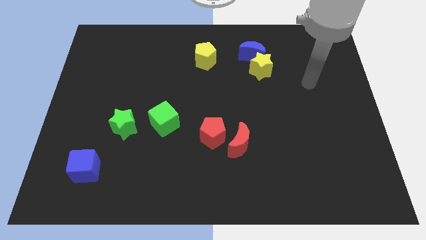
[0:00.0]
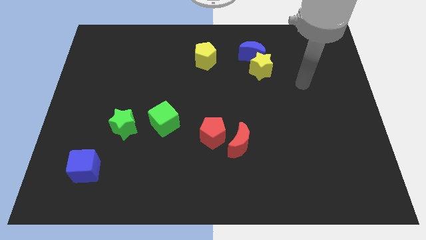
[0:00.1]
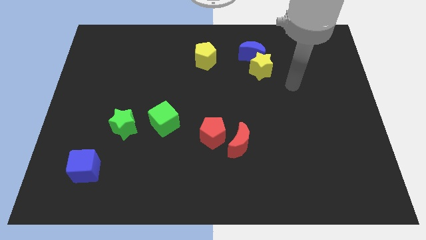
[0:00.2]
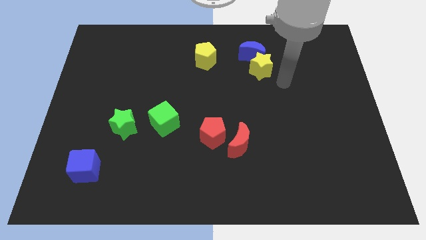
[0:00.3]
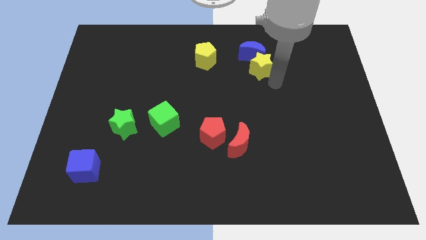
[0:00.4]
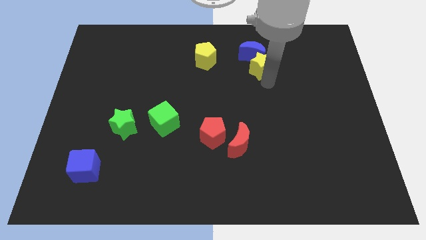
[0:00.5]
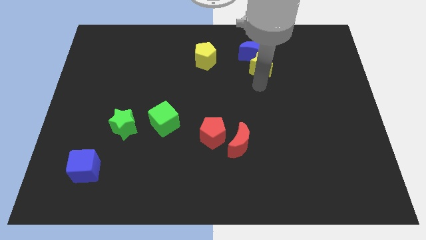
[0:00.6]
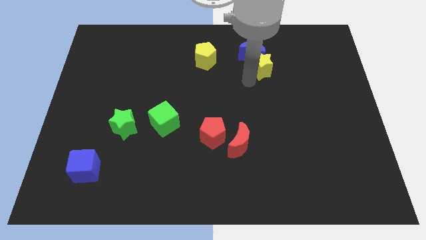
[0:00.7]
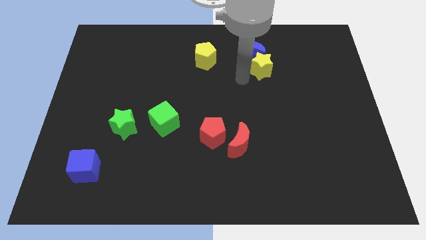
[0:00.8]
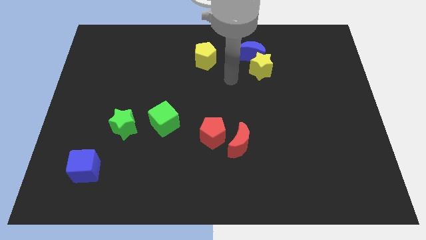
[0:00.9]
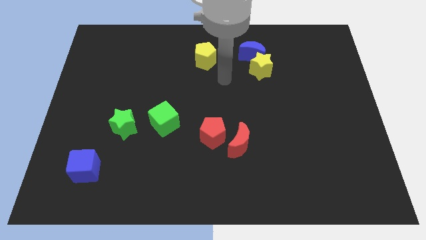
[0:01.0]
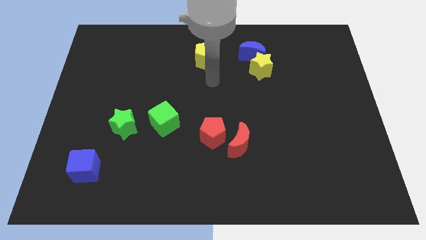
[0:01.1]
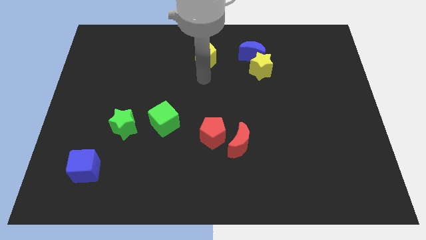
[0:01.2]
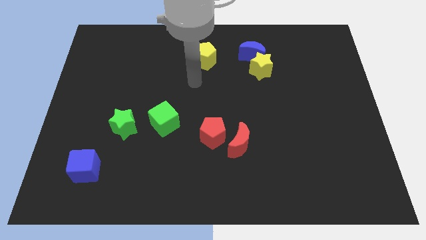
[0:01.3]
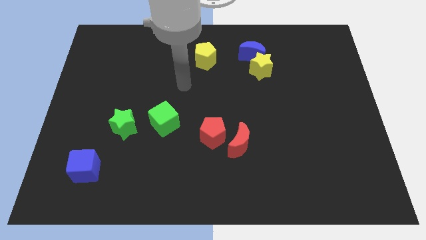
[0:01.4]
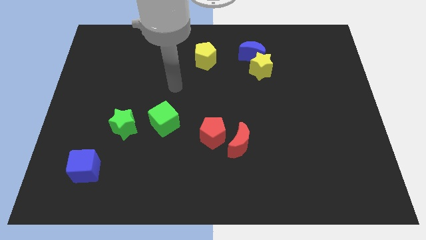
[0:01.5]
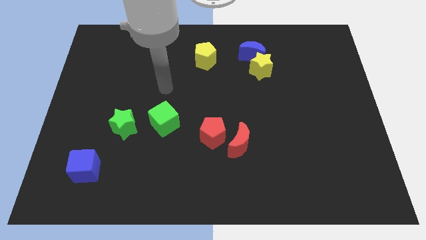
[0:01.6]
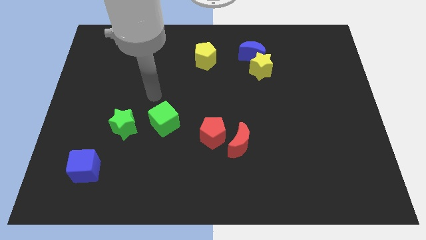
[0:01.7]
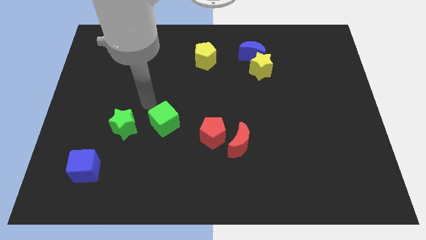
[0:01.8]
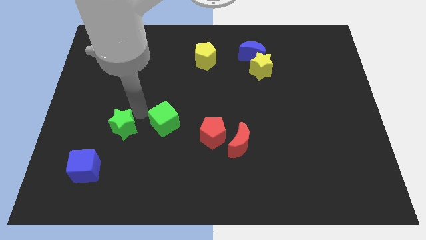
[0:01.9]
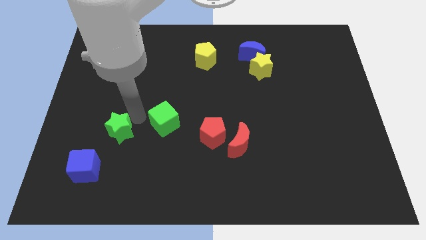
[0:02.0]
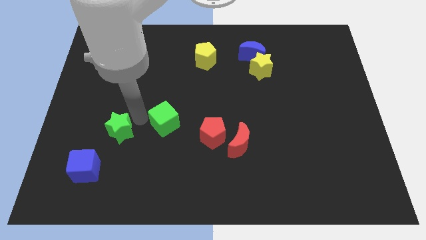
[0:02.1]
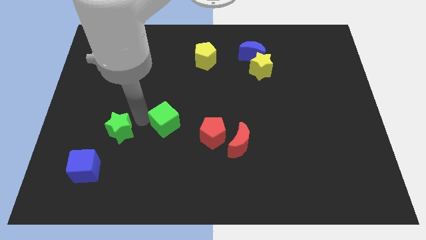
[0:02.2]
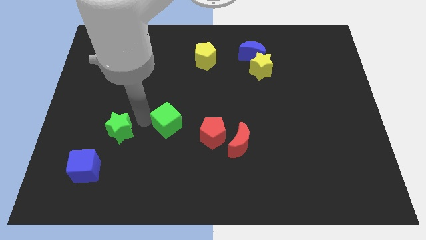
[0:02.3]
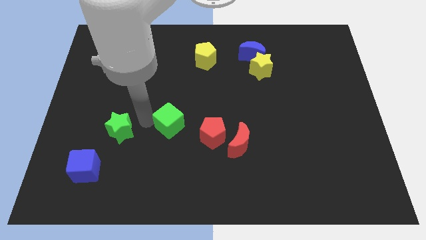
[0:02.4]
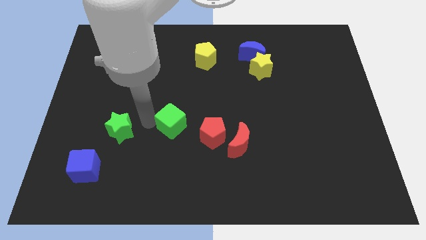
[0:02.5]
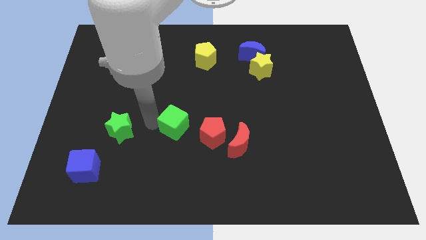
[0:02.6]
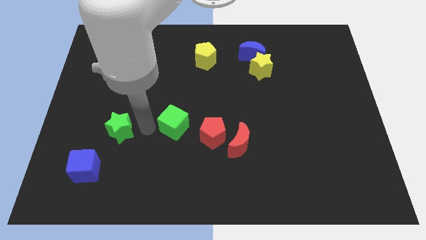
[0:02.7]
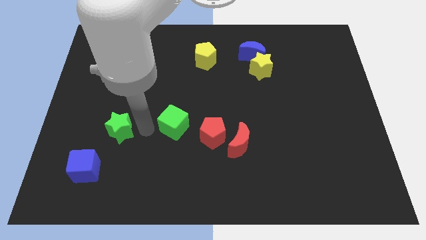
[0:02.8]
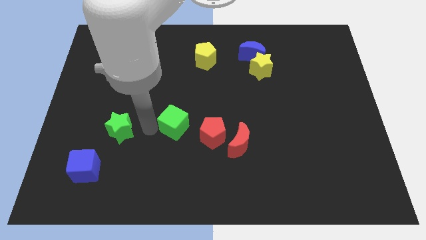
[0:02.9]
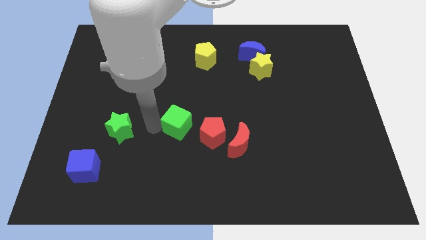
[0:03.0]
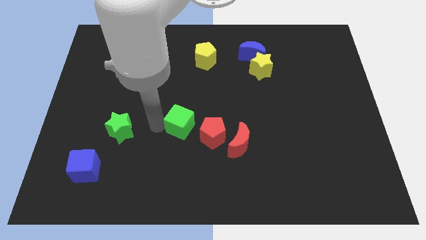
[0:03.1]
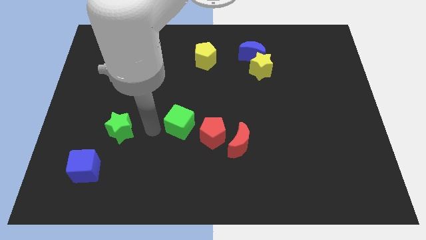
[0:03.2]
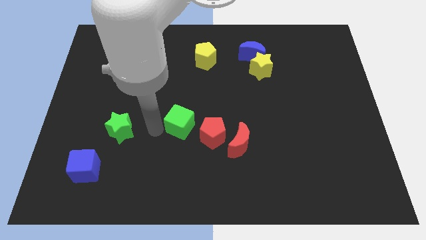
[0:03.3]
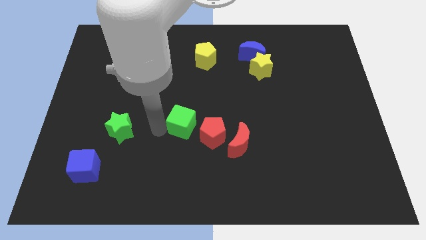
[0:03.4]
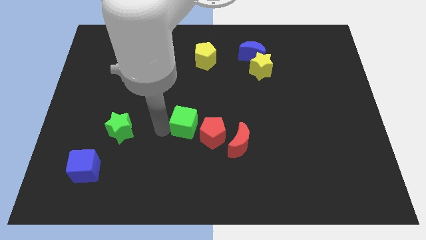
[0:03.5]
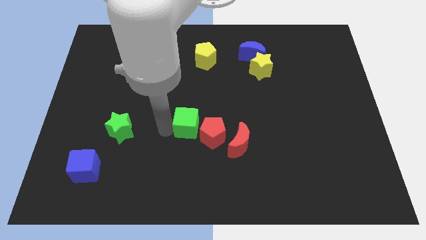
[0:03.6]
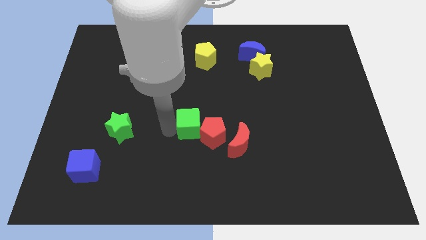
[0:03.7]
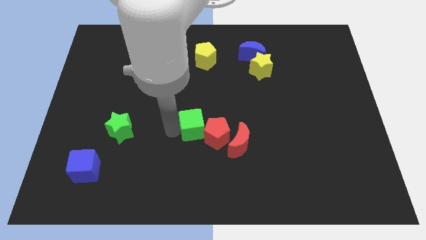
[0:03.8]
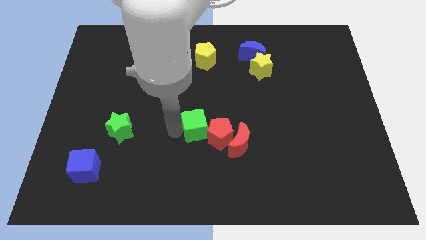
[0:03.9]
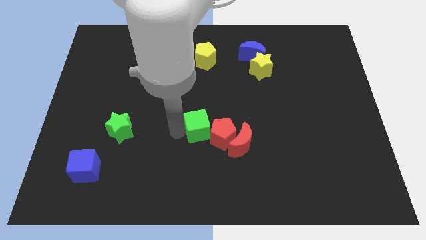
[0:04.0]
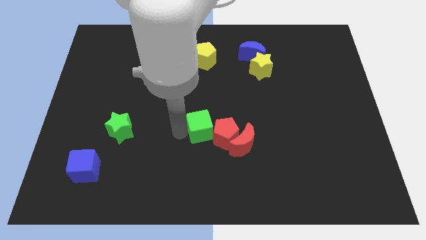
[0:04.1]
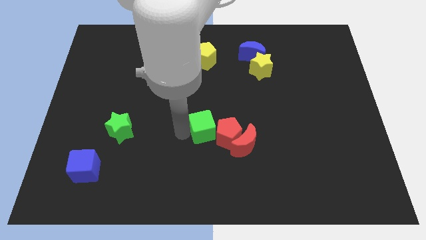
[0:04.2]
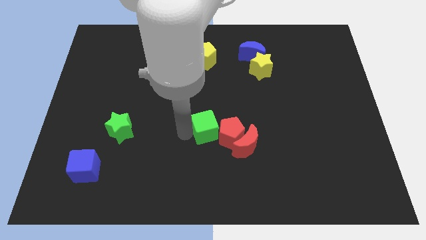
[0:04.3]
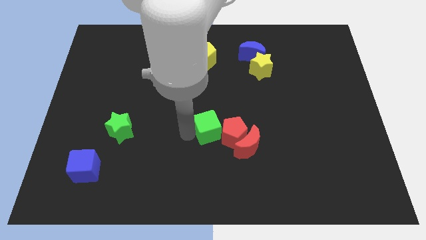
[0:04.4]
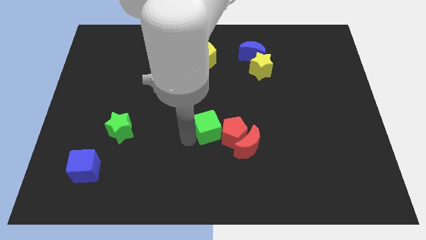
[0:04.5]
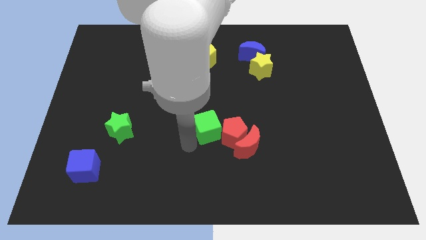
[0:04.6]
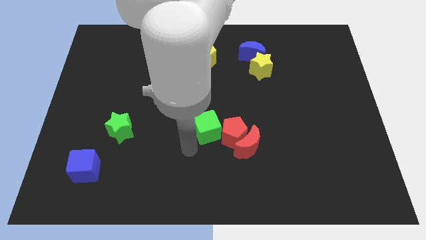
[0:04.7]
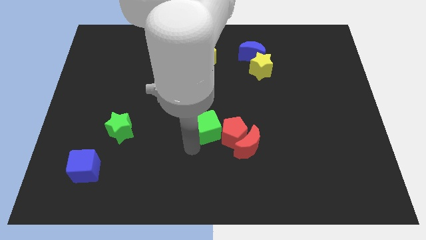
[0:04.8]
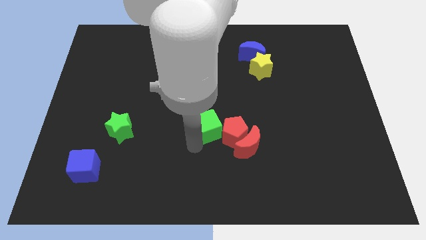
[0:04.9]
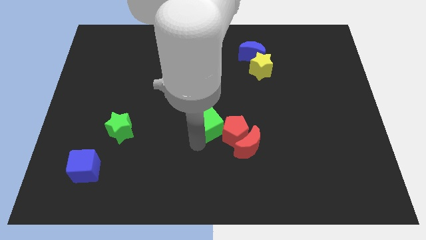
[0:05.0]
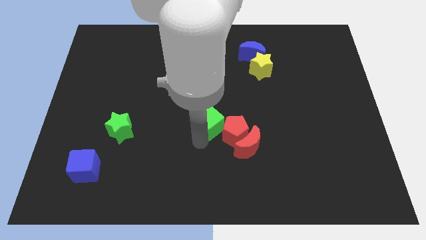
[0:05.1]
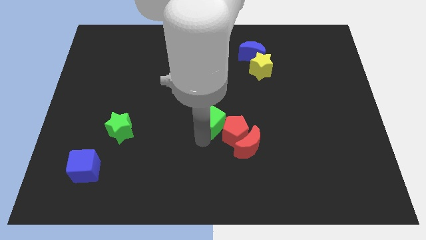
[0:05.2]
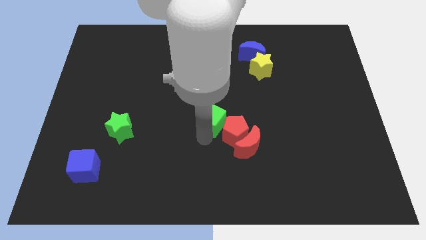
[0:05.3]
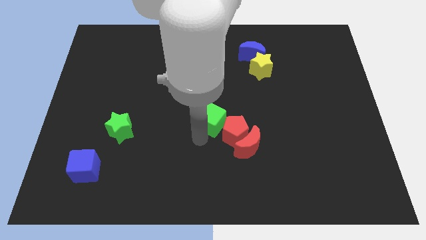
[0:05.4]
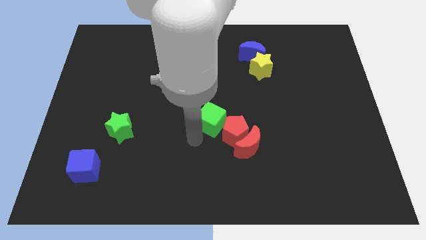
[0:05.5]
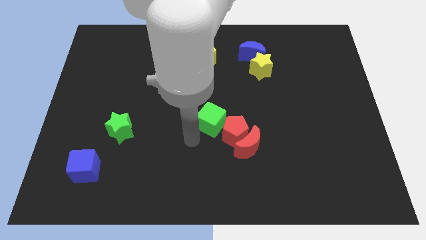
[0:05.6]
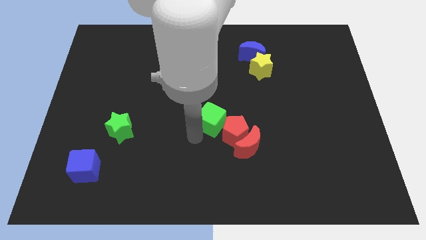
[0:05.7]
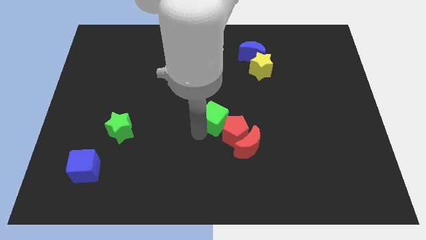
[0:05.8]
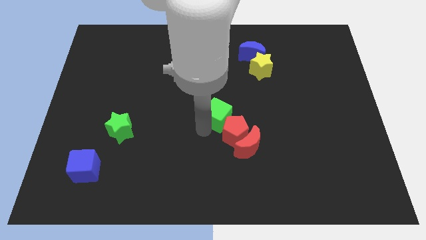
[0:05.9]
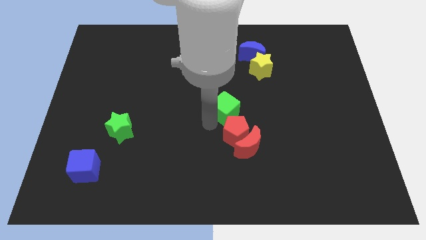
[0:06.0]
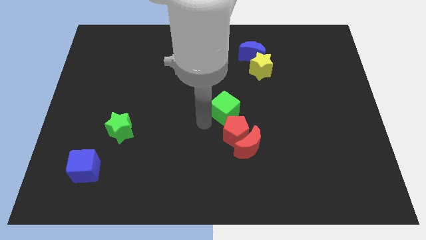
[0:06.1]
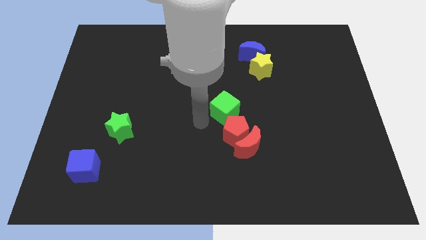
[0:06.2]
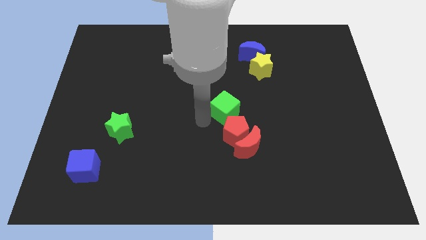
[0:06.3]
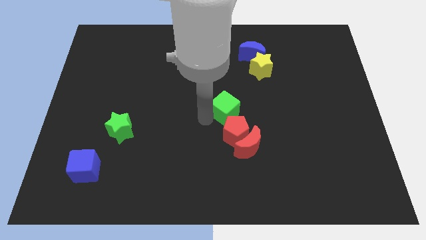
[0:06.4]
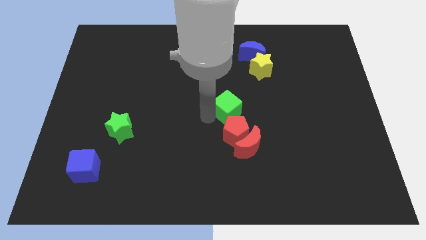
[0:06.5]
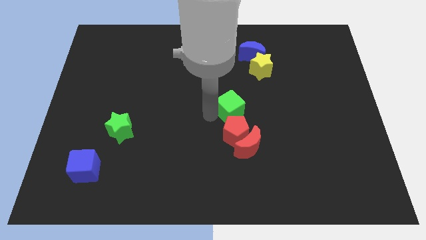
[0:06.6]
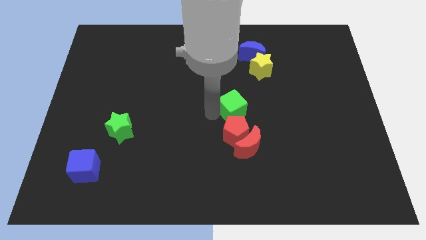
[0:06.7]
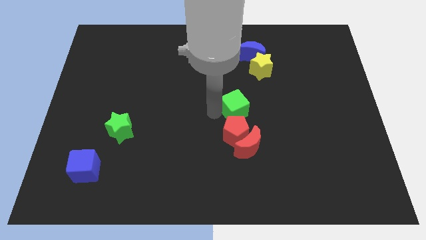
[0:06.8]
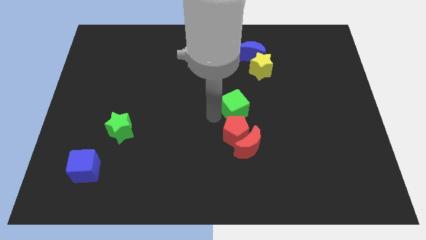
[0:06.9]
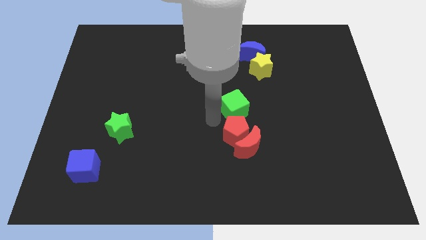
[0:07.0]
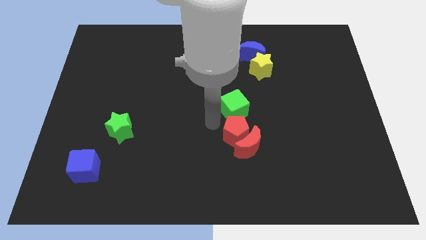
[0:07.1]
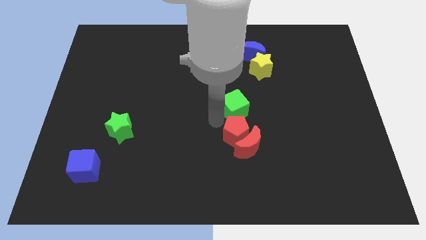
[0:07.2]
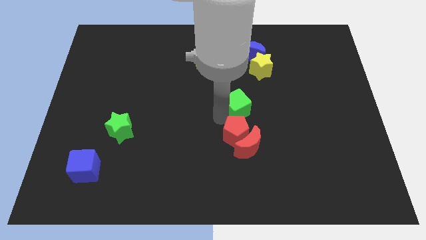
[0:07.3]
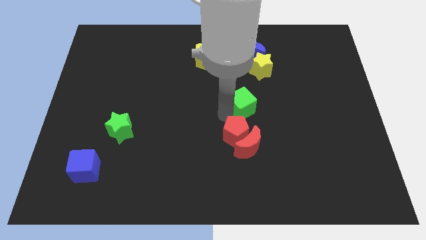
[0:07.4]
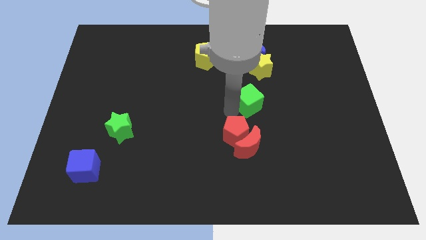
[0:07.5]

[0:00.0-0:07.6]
put the green cube below the yellow star
